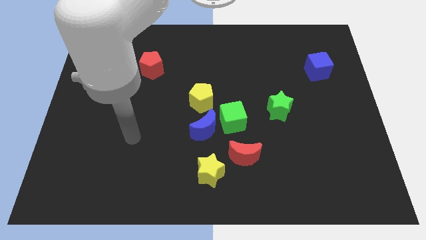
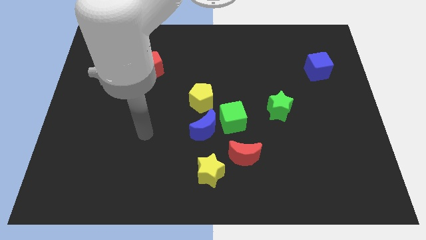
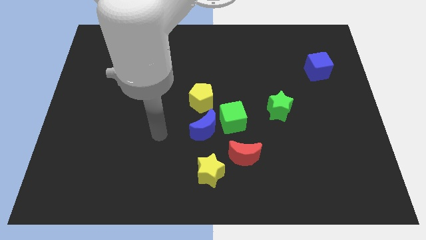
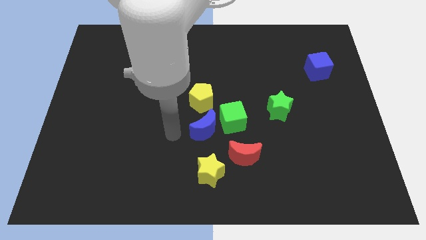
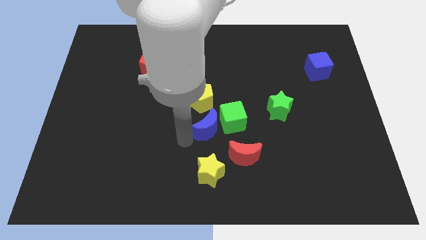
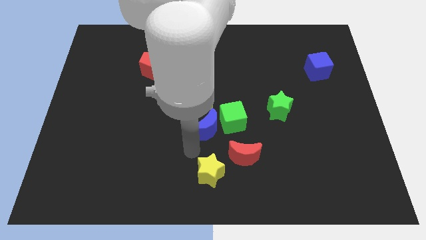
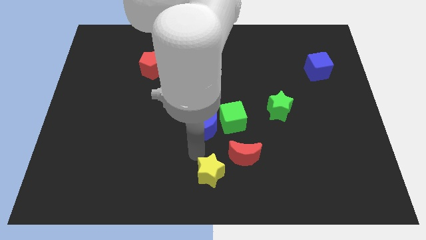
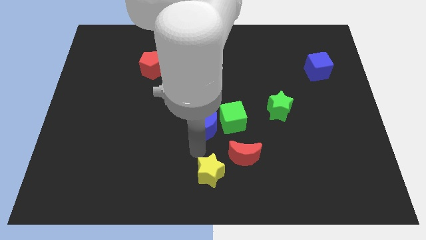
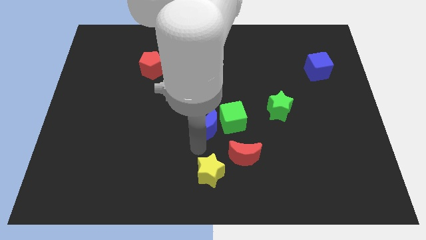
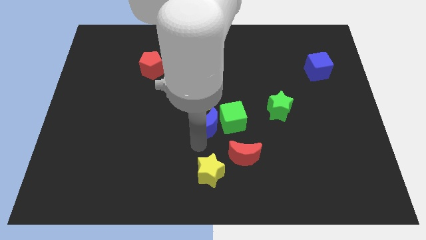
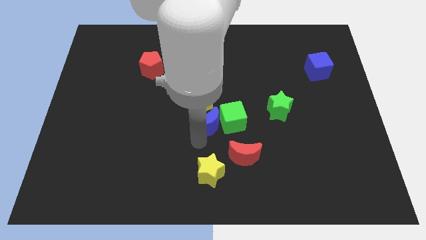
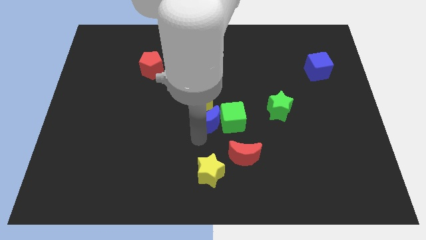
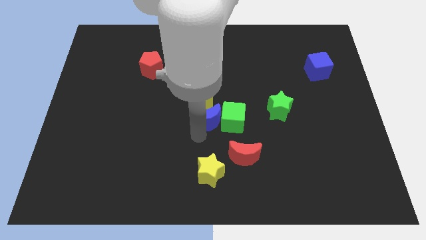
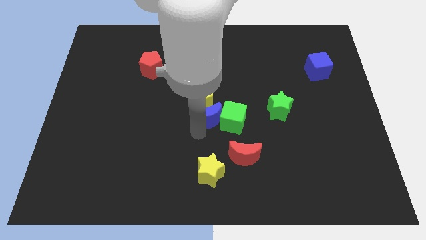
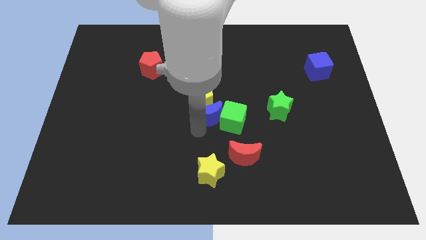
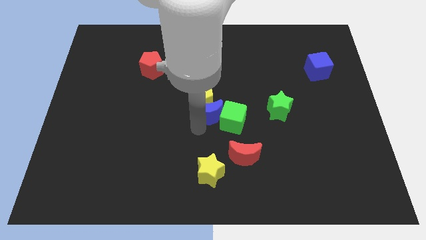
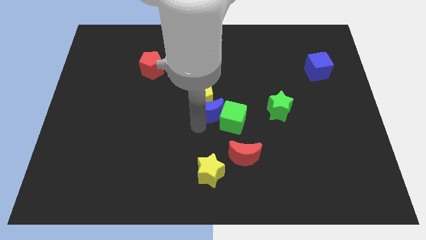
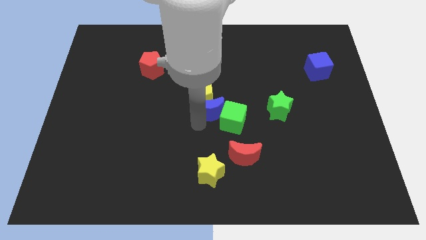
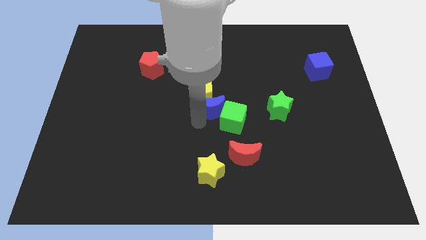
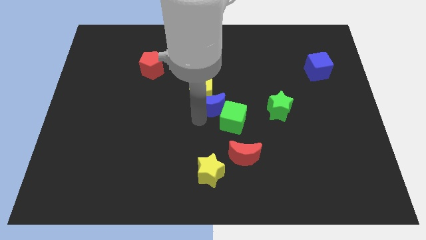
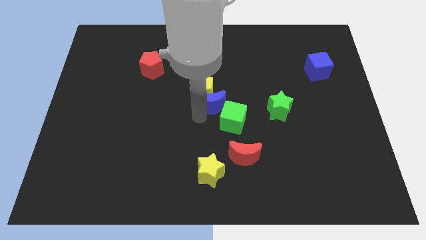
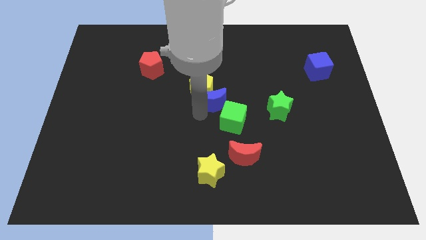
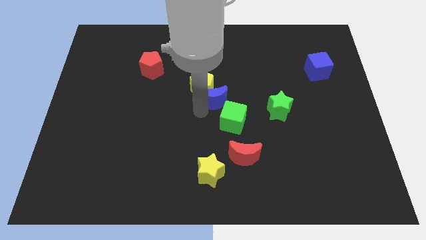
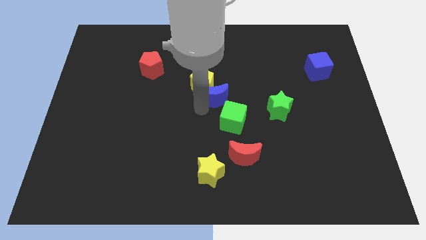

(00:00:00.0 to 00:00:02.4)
move the blue moon slightly upwards and then right

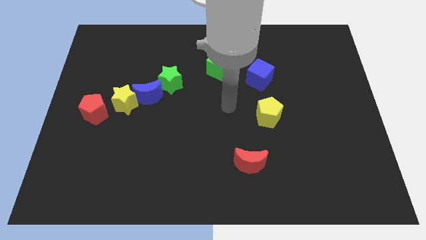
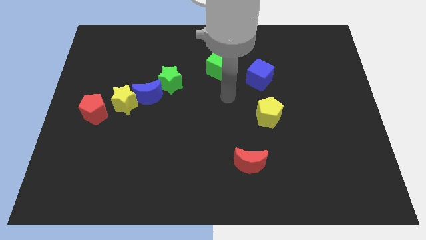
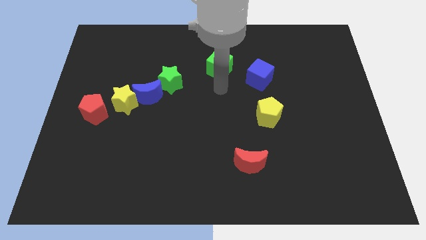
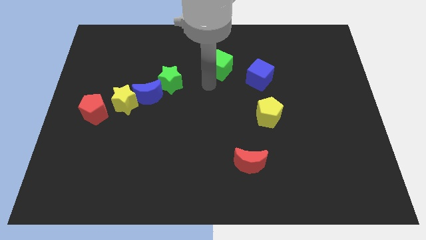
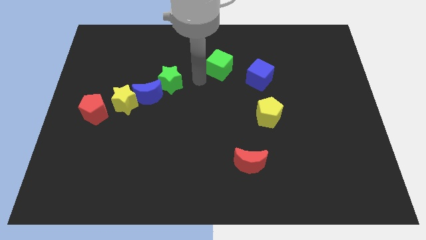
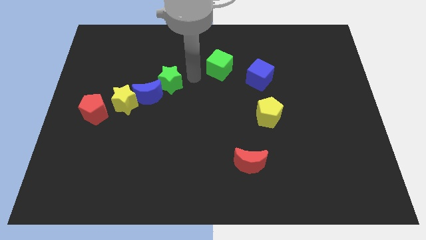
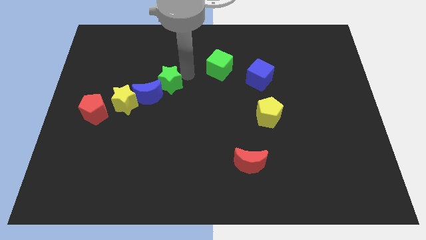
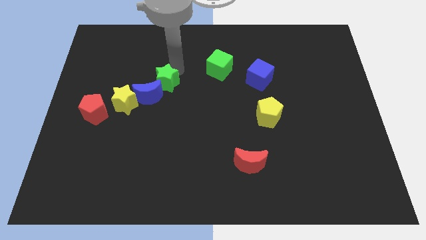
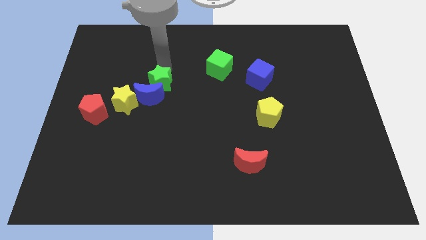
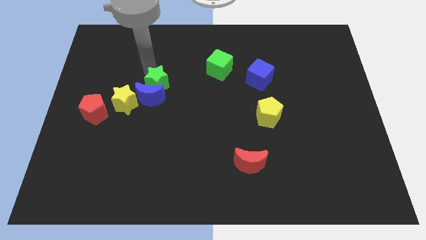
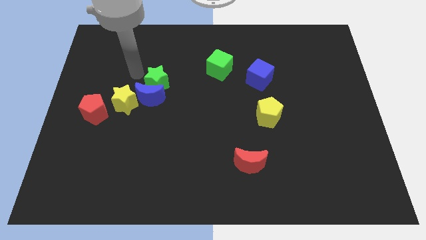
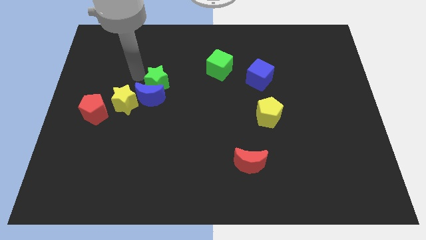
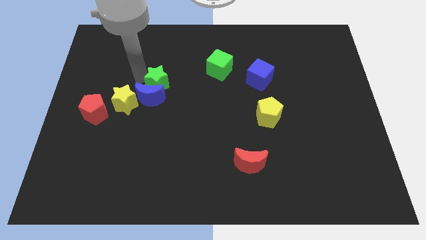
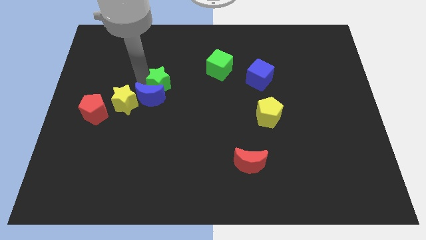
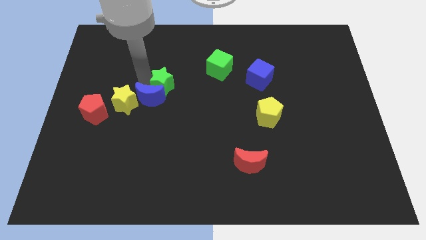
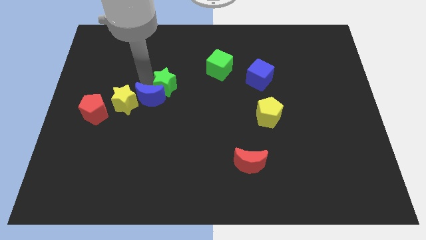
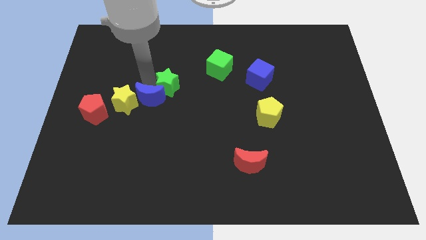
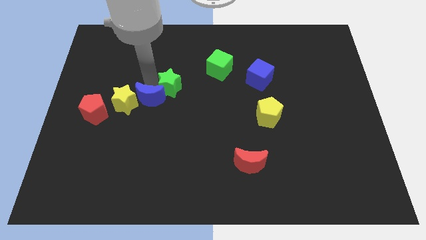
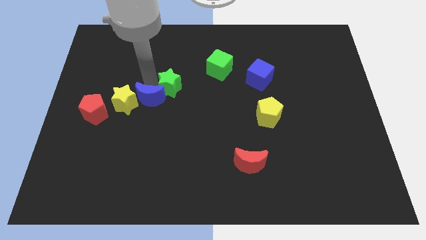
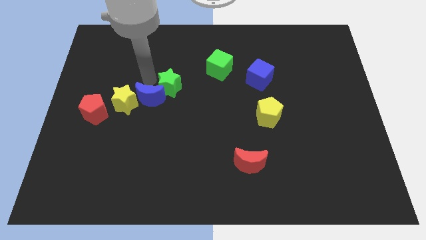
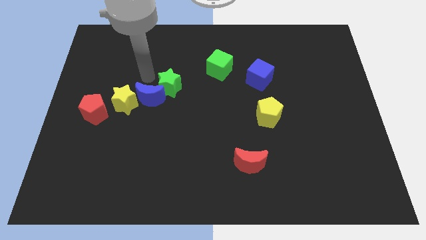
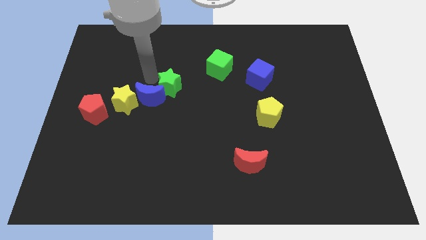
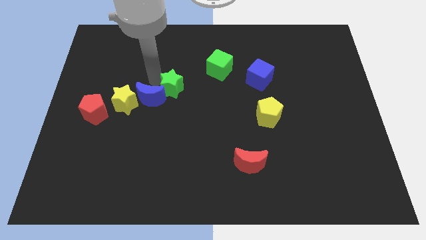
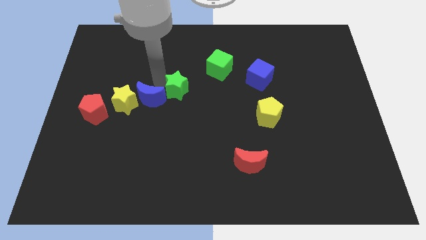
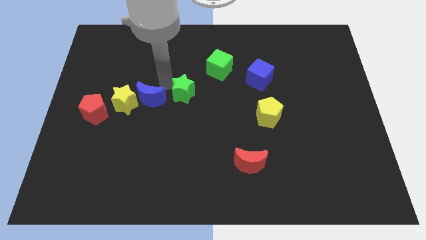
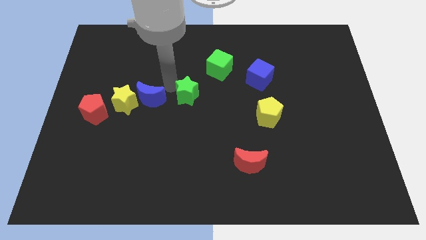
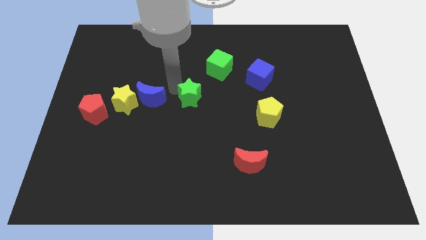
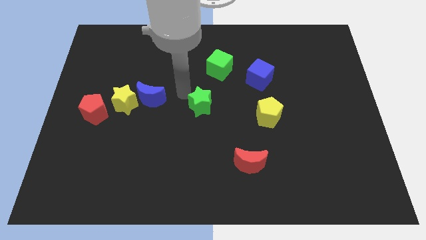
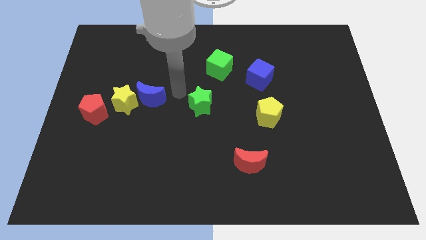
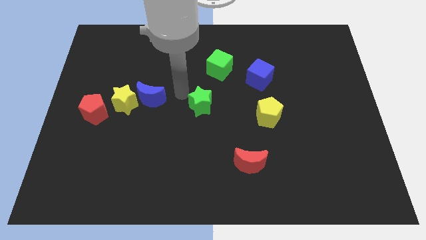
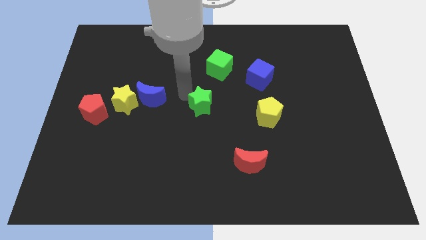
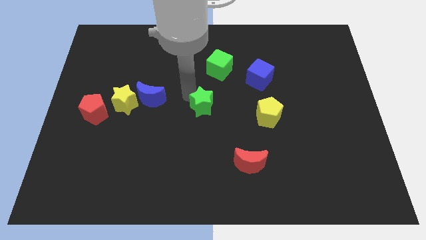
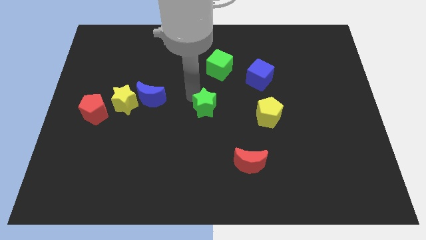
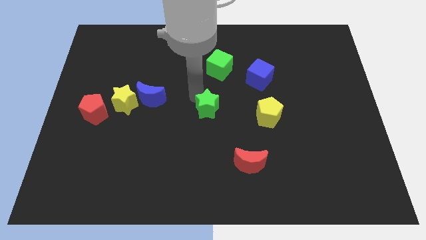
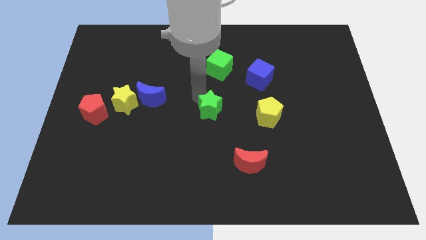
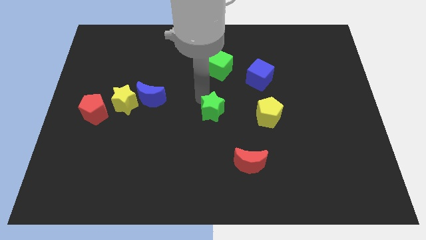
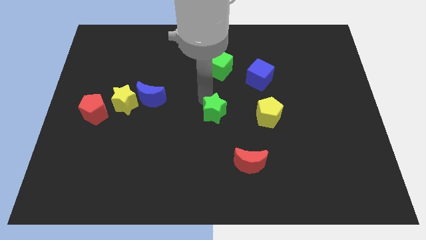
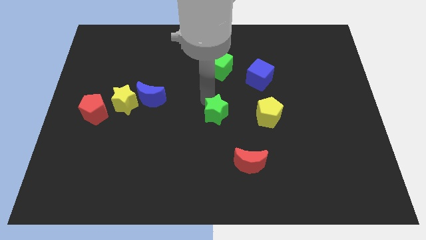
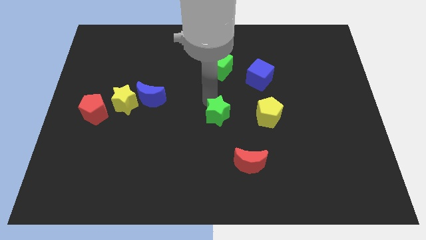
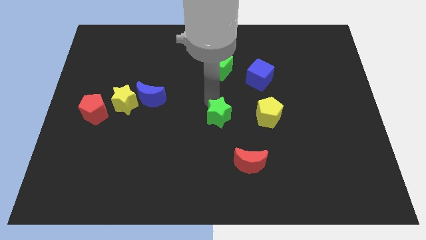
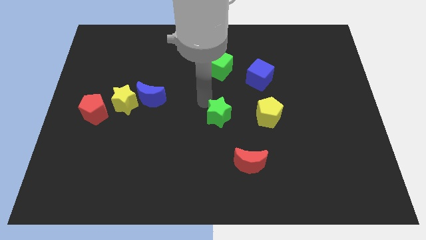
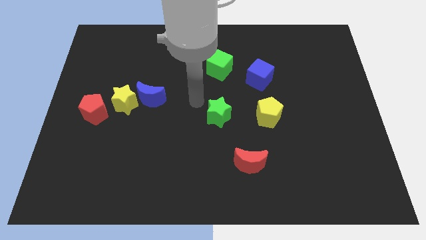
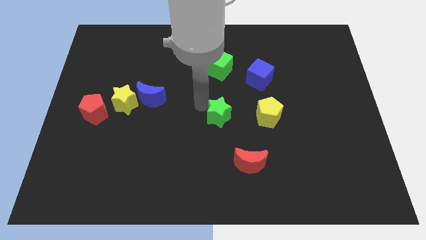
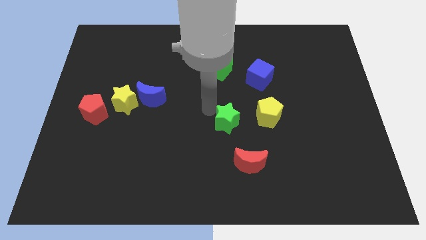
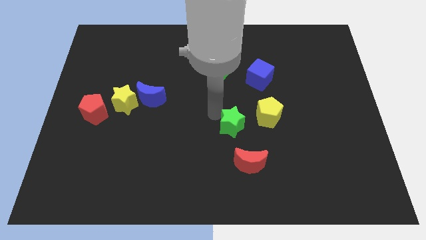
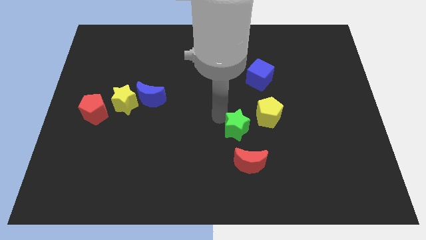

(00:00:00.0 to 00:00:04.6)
move the green star downwards and then right

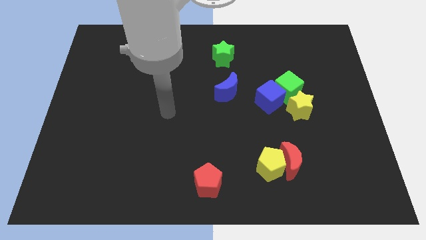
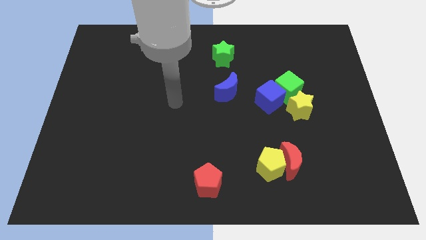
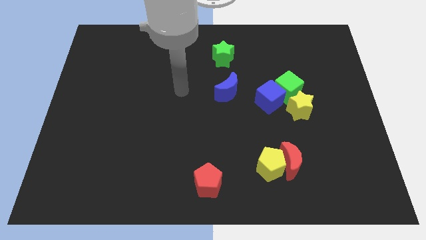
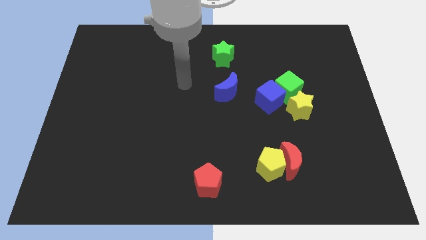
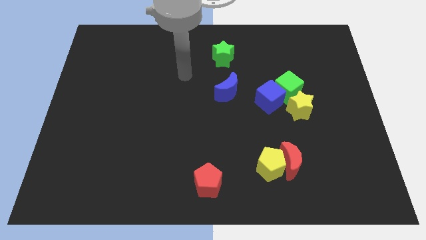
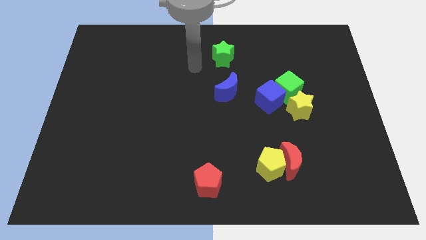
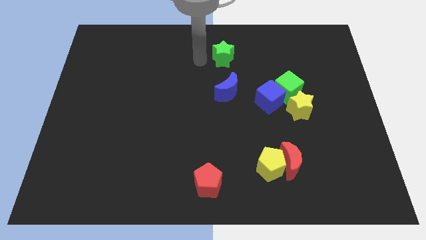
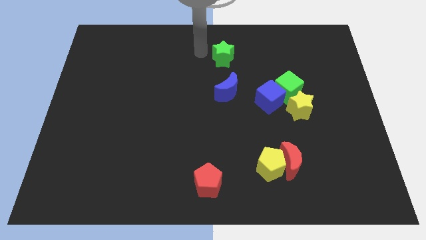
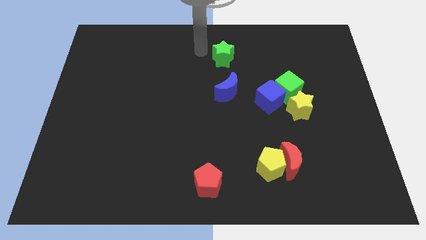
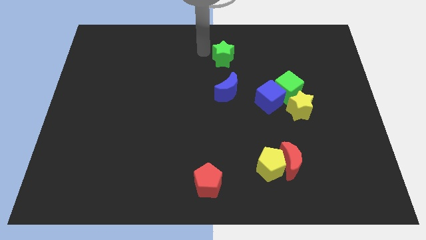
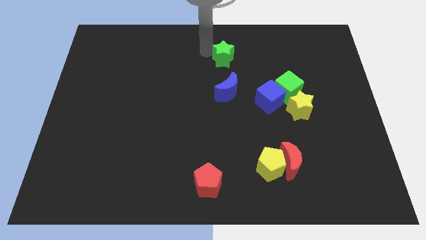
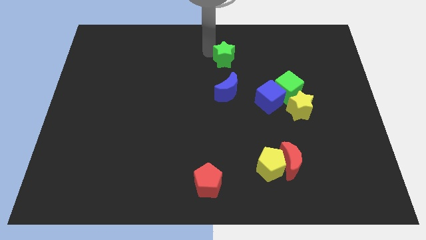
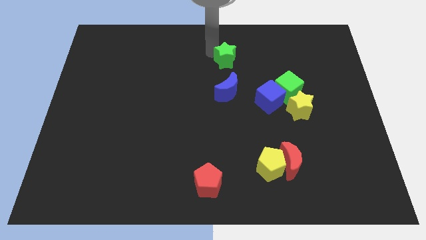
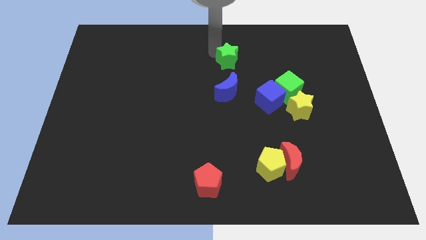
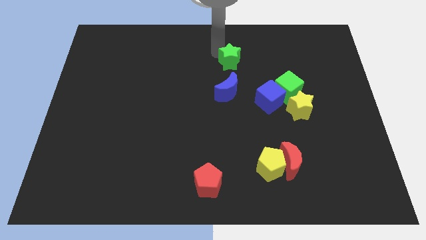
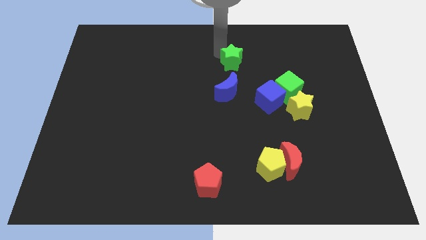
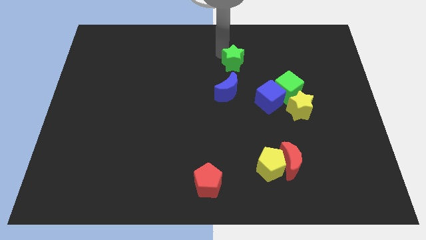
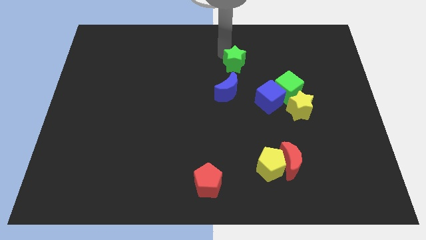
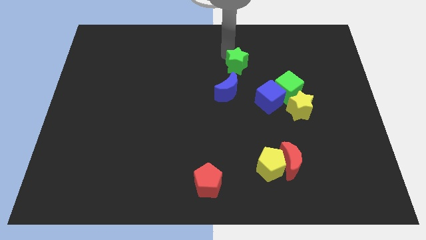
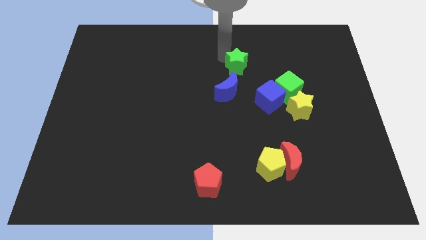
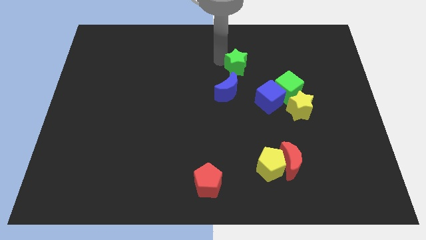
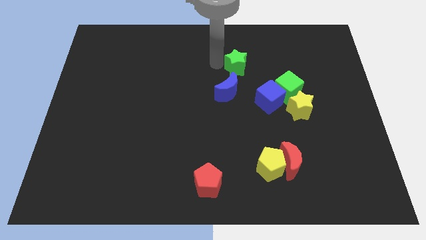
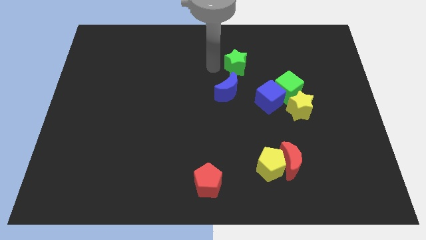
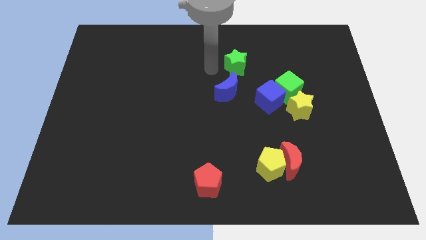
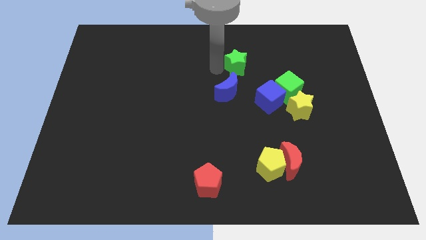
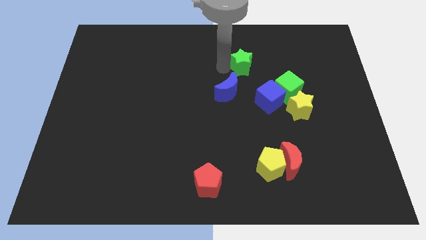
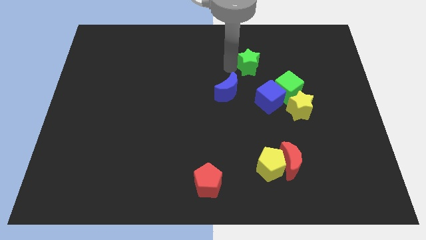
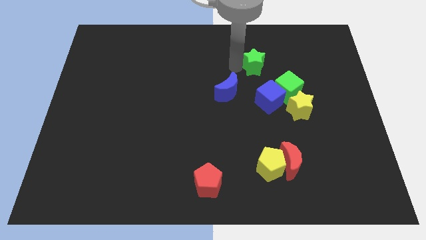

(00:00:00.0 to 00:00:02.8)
move the green star to the right a little
